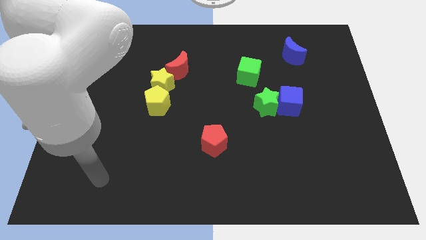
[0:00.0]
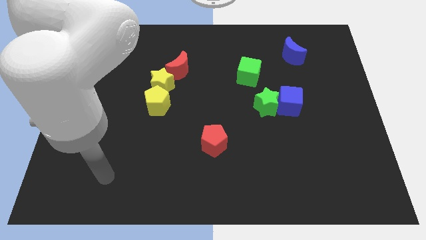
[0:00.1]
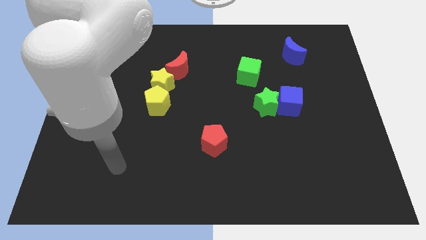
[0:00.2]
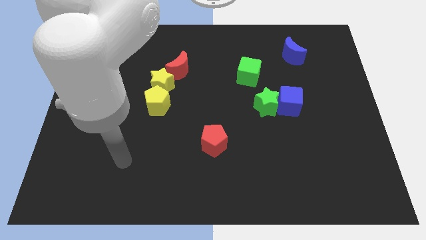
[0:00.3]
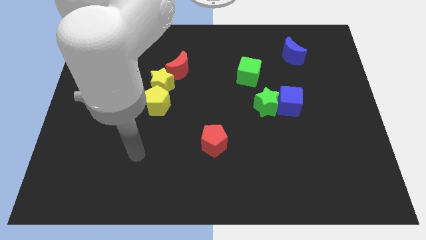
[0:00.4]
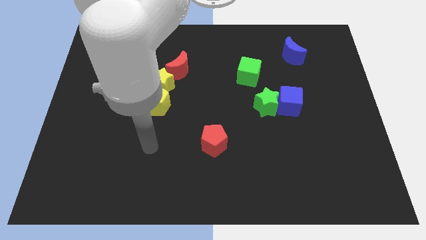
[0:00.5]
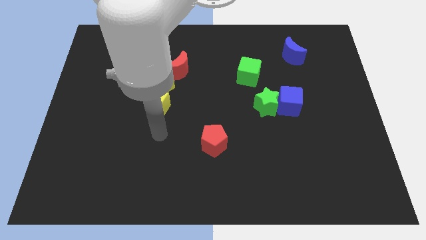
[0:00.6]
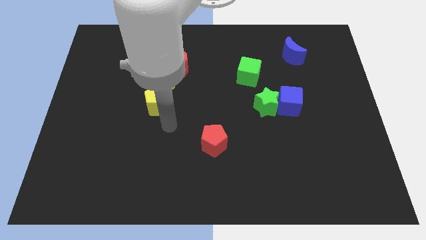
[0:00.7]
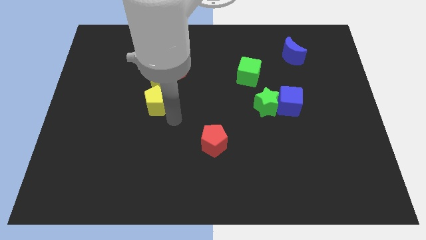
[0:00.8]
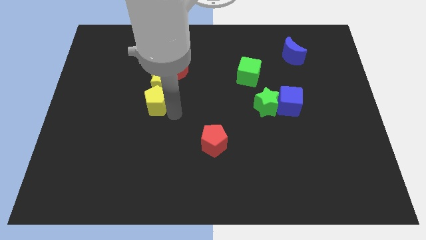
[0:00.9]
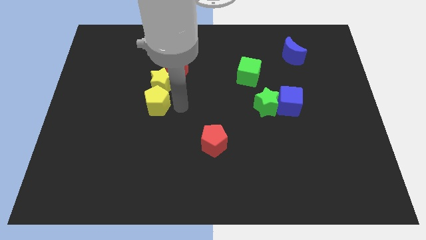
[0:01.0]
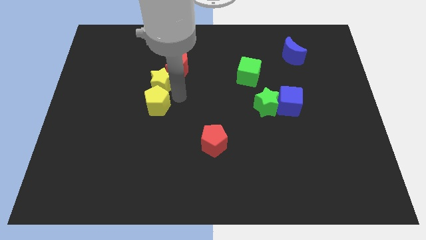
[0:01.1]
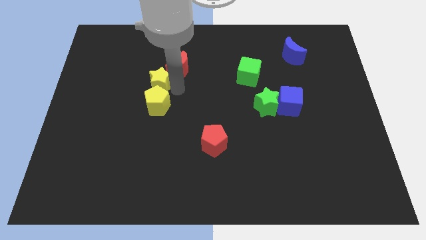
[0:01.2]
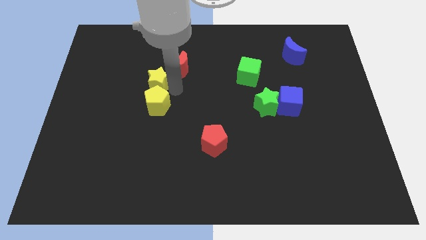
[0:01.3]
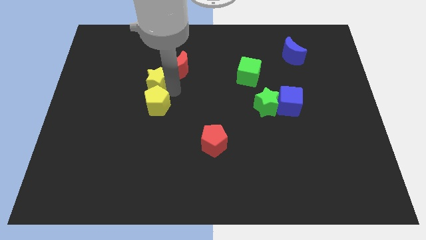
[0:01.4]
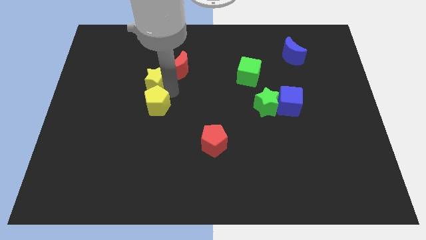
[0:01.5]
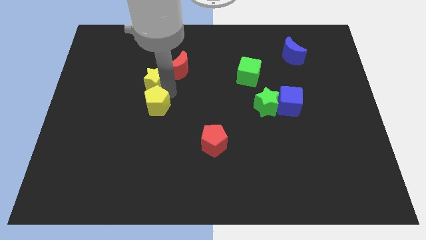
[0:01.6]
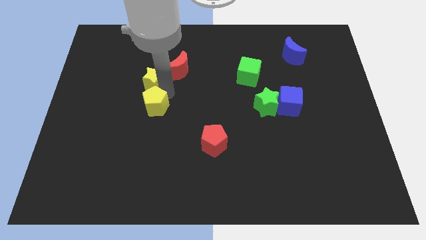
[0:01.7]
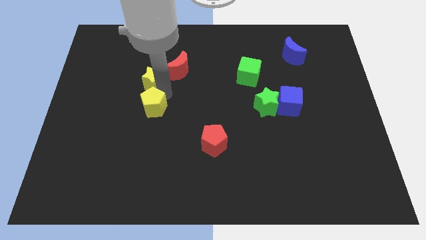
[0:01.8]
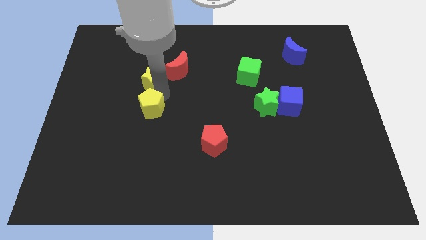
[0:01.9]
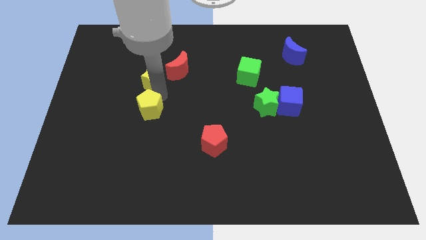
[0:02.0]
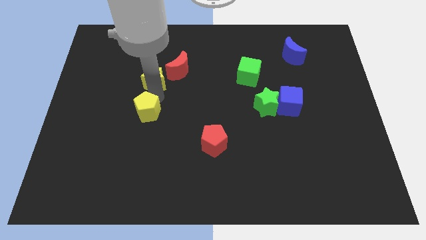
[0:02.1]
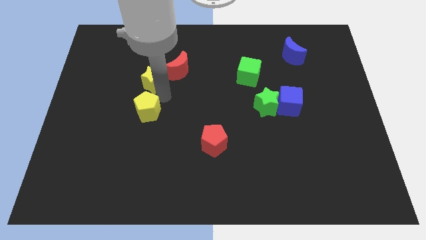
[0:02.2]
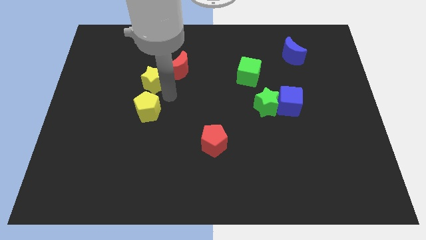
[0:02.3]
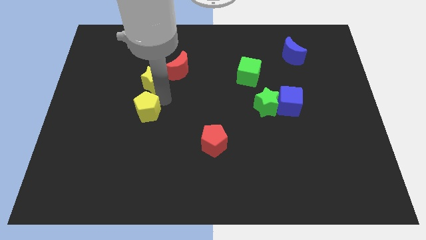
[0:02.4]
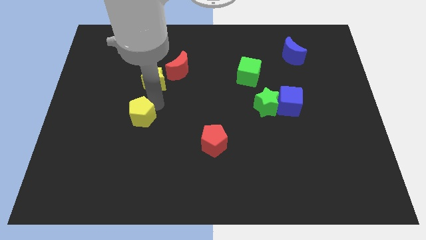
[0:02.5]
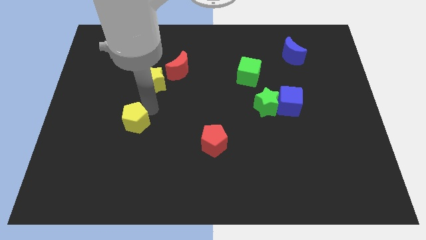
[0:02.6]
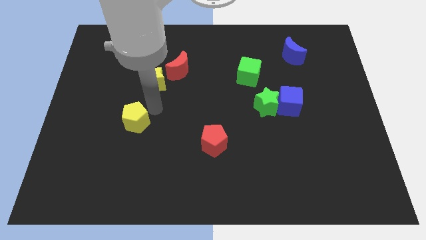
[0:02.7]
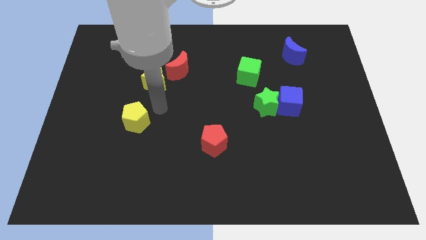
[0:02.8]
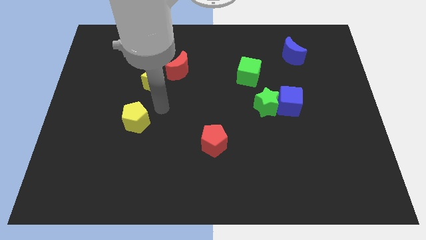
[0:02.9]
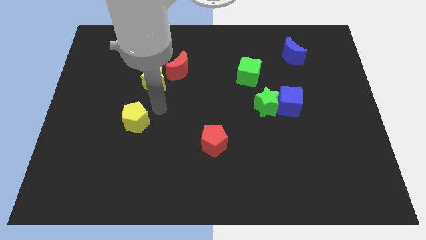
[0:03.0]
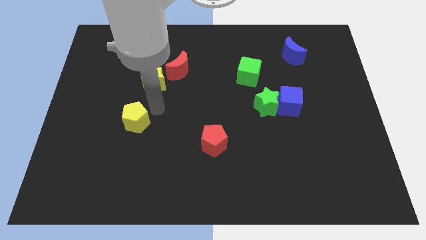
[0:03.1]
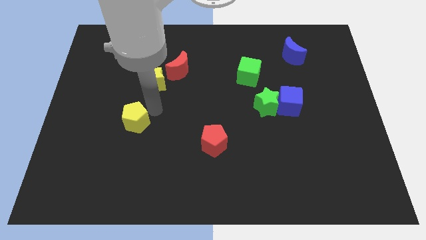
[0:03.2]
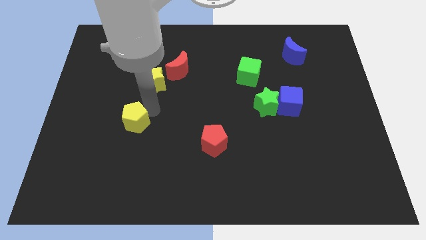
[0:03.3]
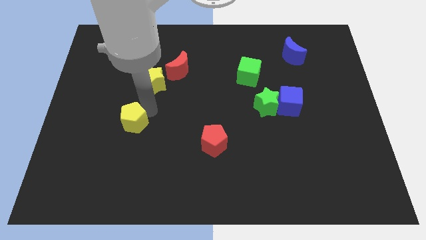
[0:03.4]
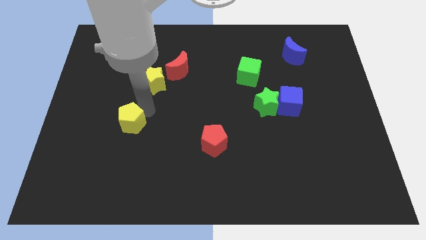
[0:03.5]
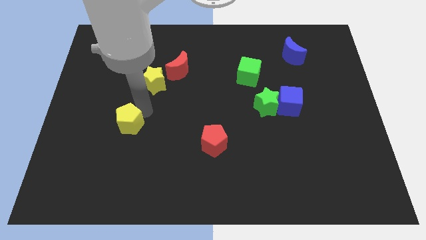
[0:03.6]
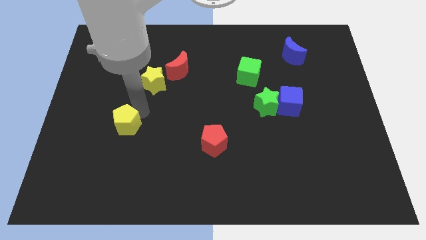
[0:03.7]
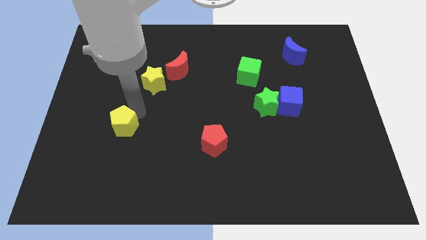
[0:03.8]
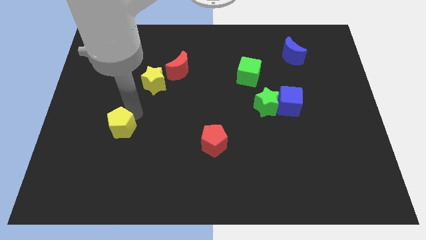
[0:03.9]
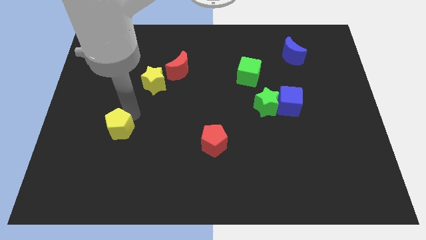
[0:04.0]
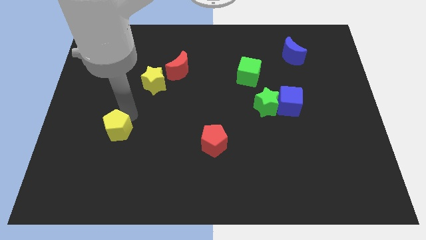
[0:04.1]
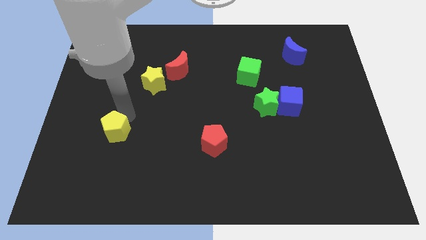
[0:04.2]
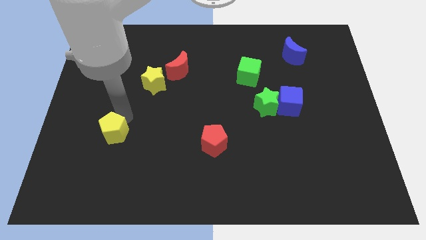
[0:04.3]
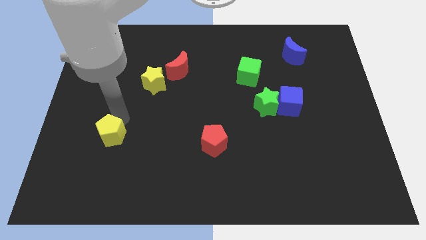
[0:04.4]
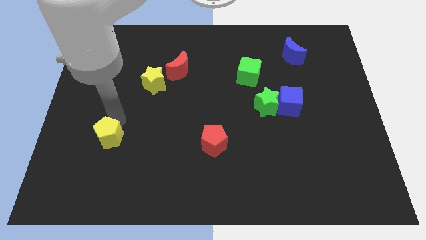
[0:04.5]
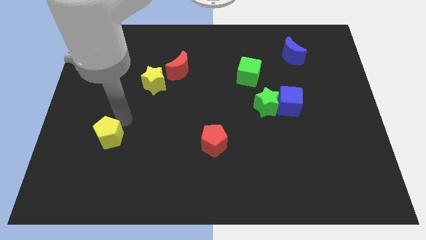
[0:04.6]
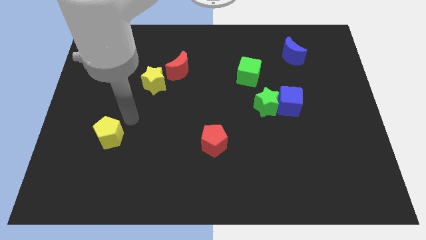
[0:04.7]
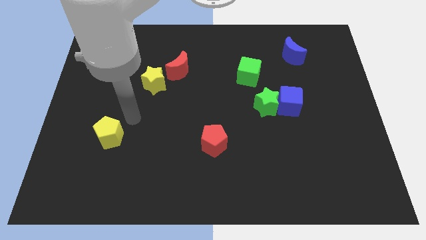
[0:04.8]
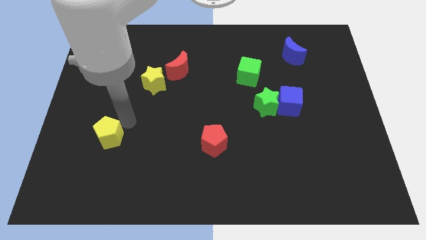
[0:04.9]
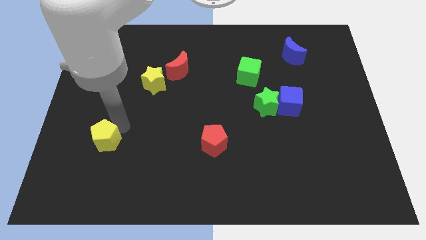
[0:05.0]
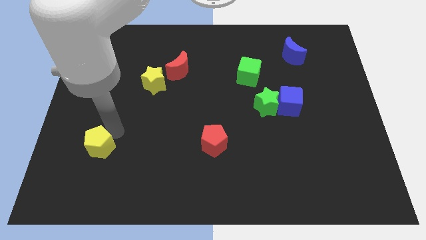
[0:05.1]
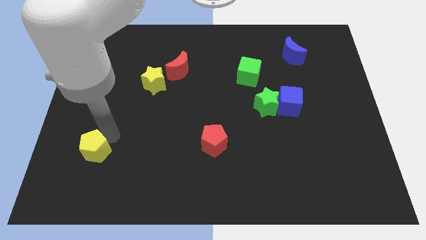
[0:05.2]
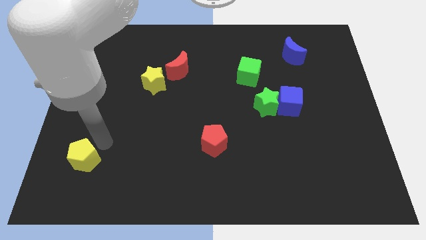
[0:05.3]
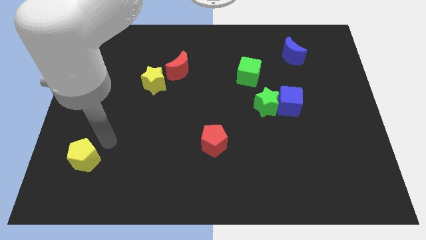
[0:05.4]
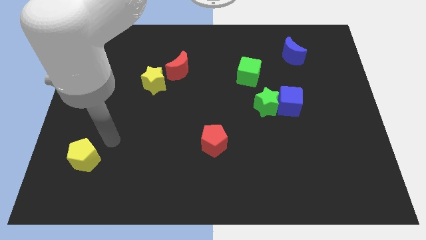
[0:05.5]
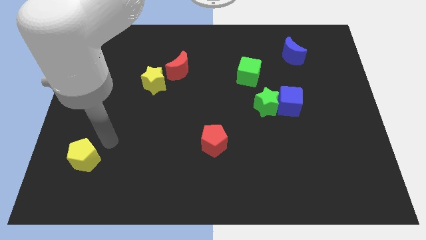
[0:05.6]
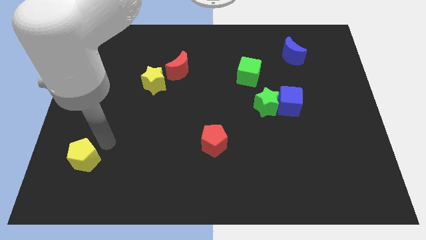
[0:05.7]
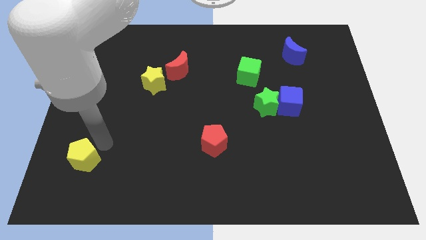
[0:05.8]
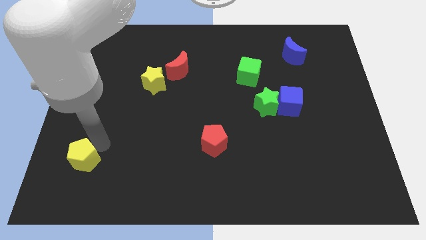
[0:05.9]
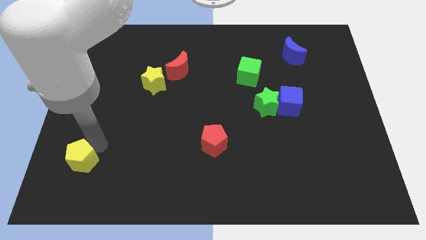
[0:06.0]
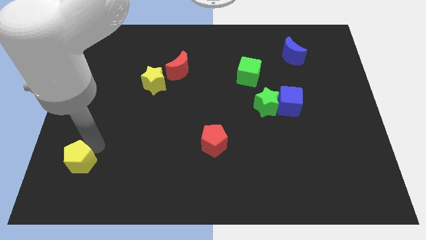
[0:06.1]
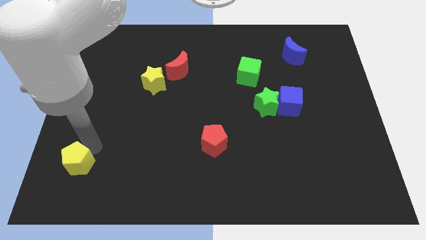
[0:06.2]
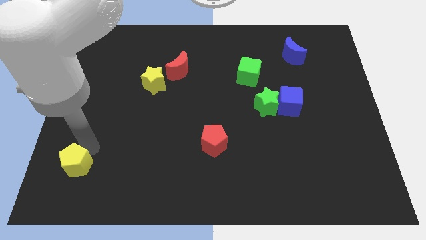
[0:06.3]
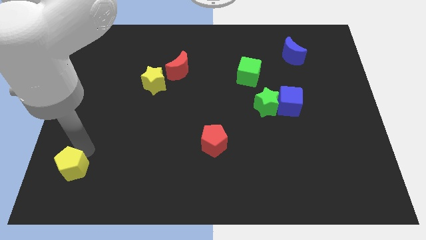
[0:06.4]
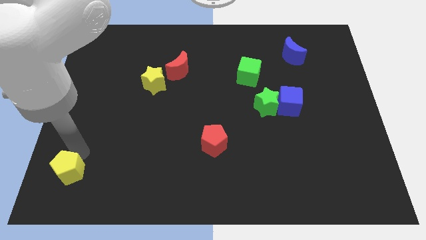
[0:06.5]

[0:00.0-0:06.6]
push the yellow pentagon to the lower left corner
